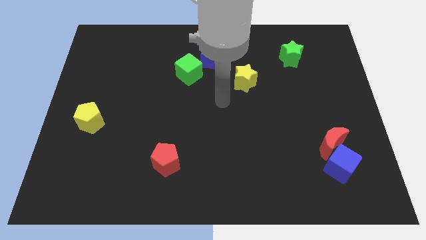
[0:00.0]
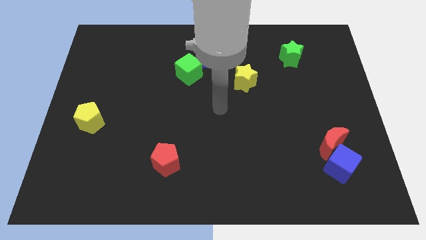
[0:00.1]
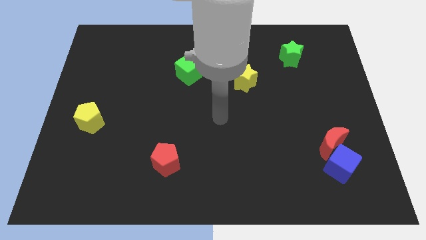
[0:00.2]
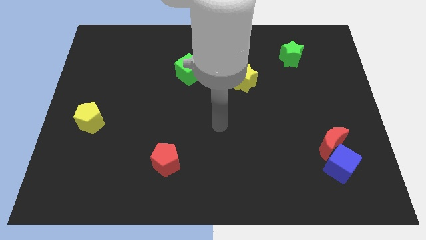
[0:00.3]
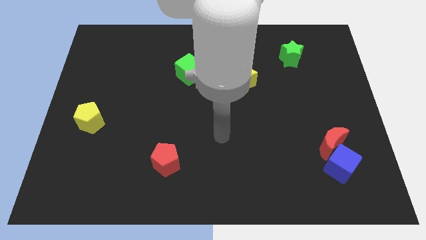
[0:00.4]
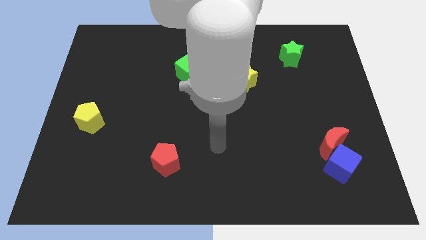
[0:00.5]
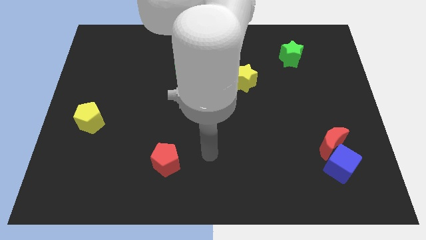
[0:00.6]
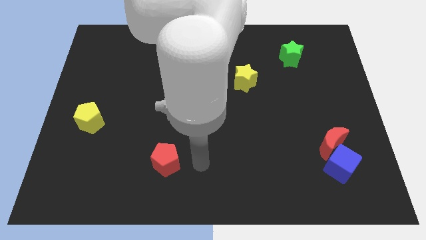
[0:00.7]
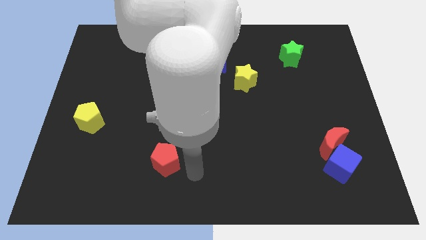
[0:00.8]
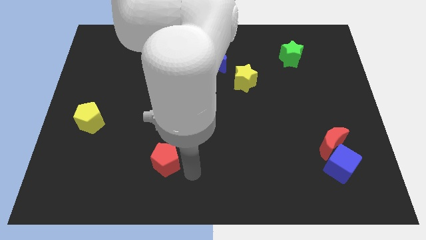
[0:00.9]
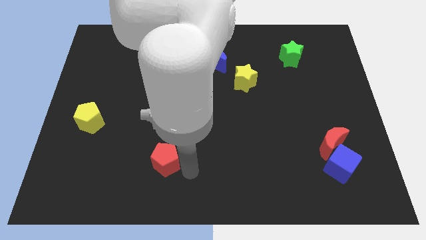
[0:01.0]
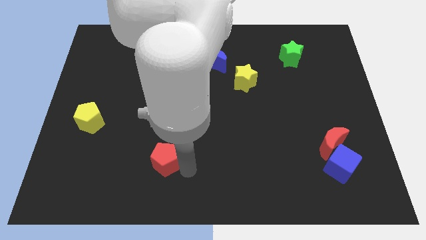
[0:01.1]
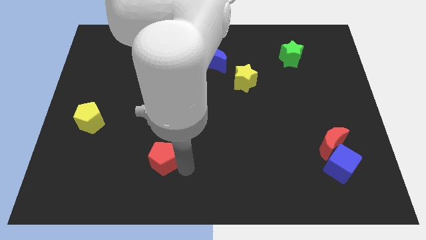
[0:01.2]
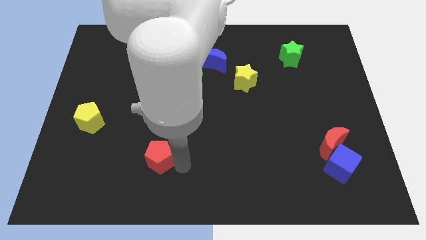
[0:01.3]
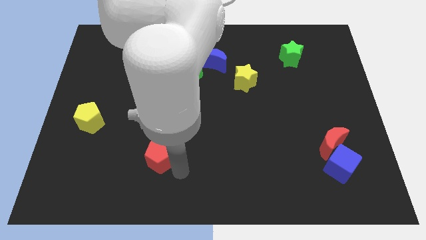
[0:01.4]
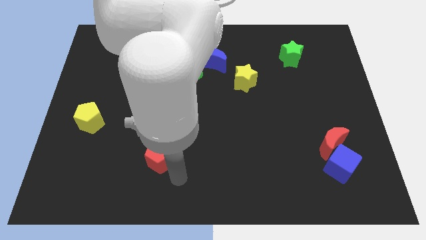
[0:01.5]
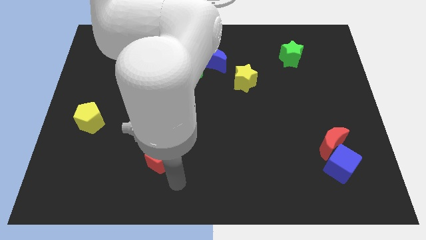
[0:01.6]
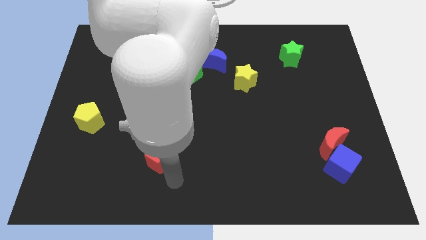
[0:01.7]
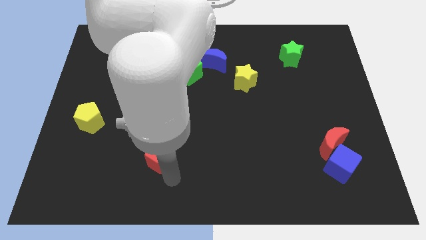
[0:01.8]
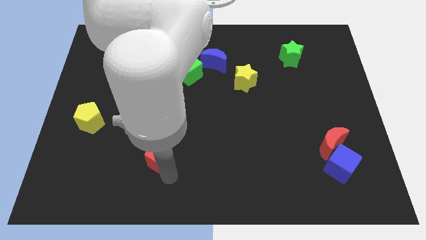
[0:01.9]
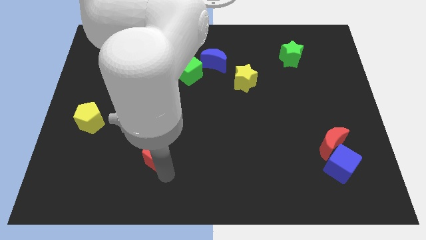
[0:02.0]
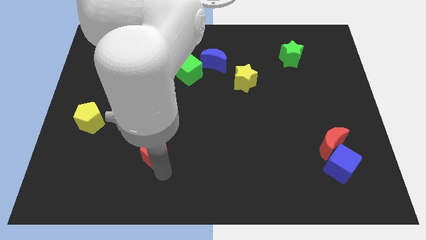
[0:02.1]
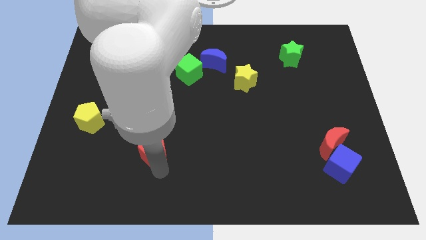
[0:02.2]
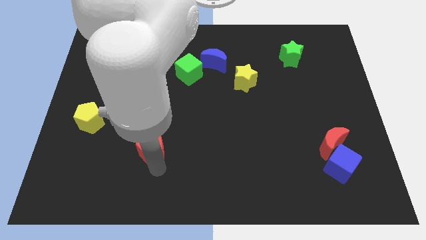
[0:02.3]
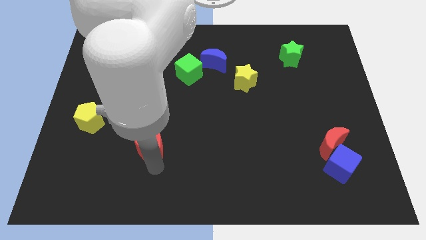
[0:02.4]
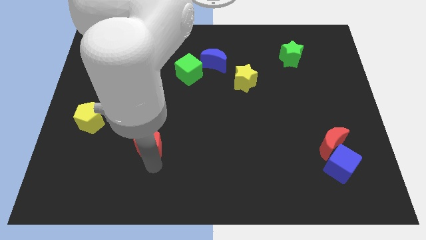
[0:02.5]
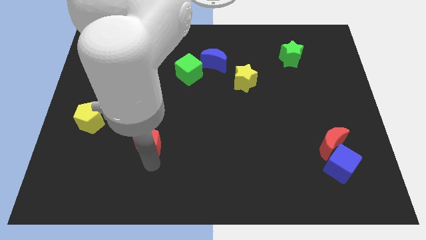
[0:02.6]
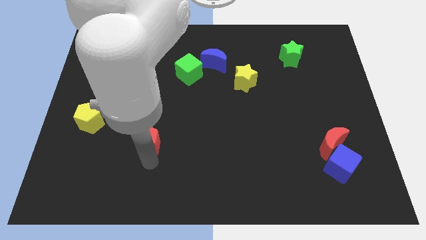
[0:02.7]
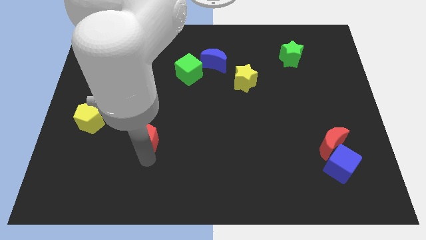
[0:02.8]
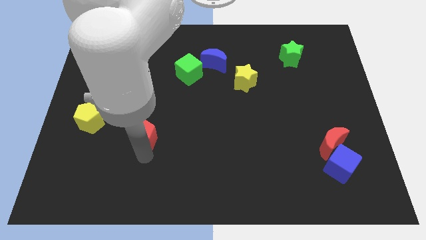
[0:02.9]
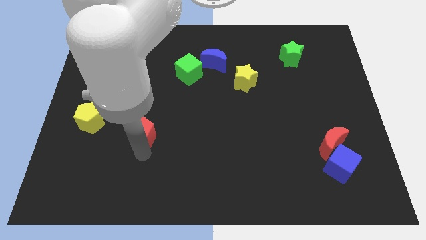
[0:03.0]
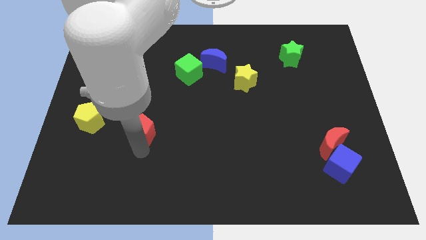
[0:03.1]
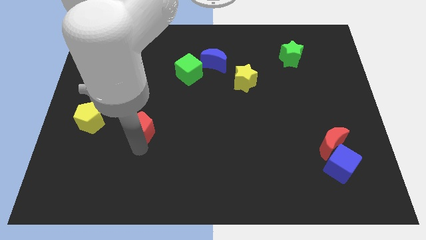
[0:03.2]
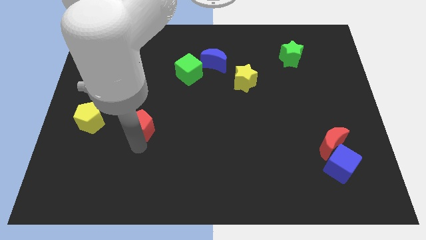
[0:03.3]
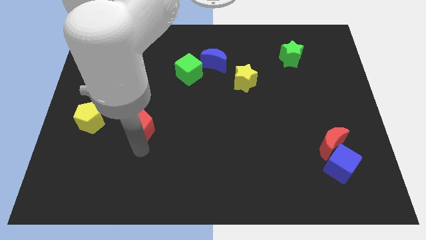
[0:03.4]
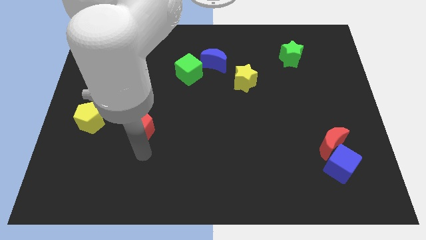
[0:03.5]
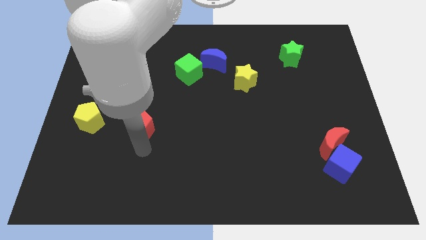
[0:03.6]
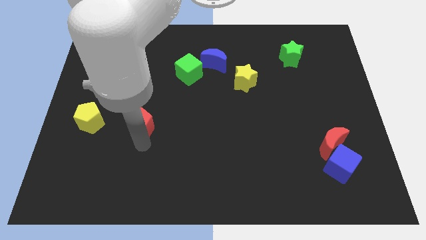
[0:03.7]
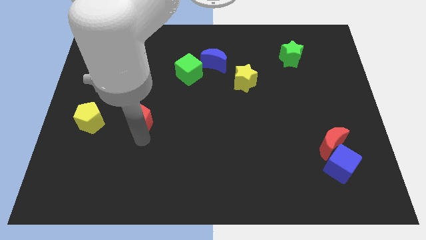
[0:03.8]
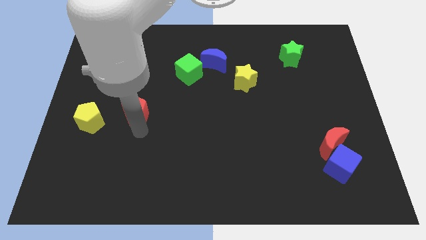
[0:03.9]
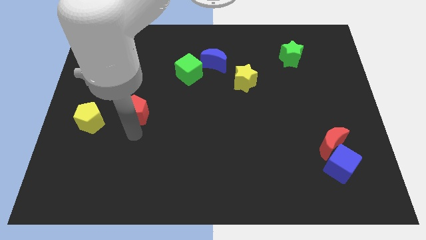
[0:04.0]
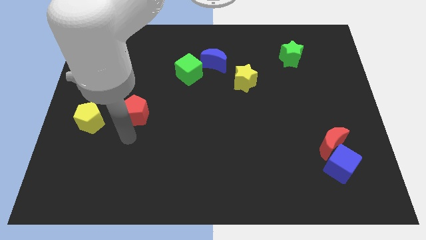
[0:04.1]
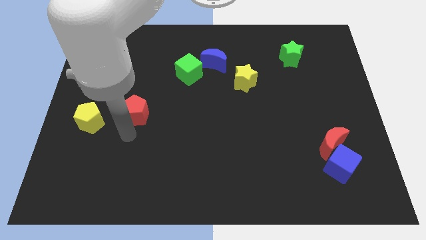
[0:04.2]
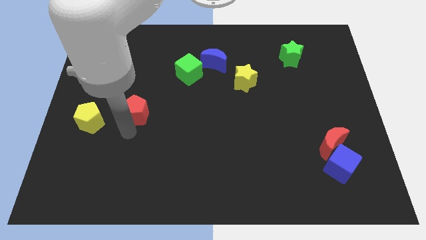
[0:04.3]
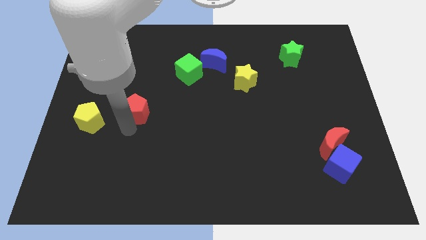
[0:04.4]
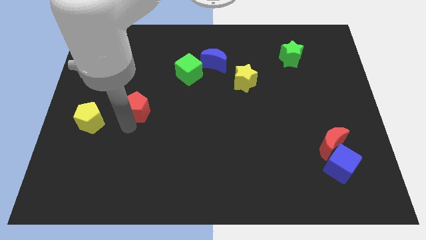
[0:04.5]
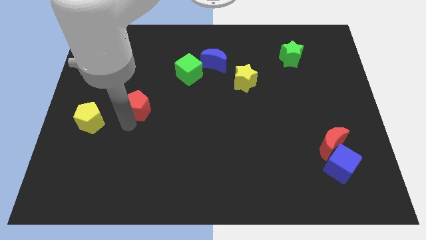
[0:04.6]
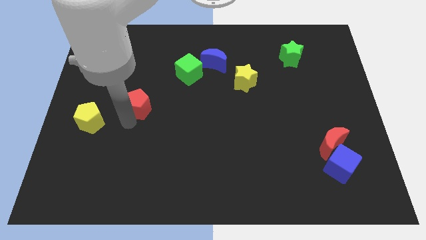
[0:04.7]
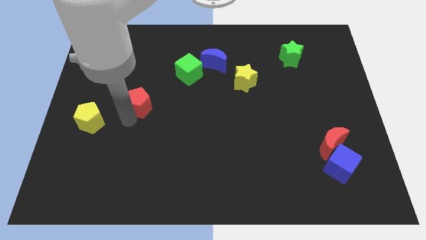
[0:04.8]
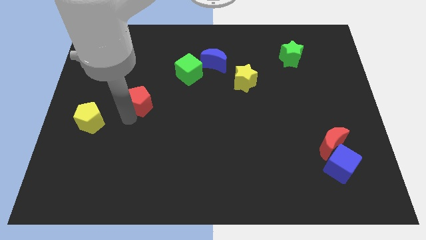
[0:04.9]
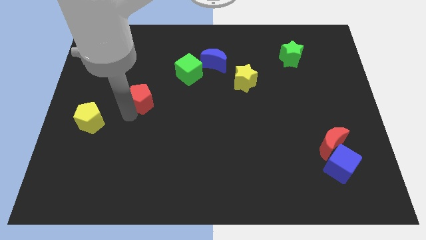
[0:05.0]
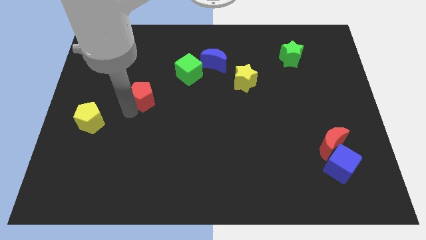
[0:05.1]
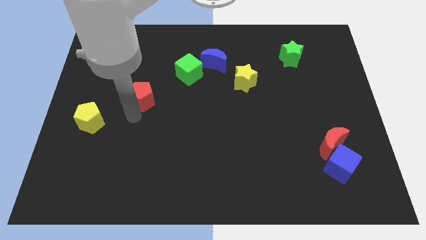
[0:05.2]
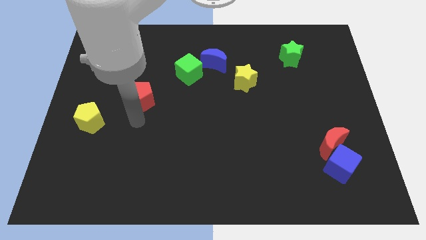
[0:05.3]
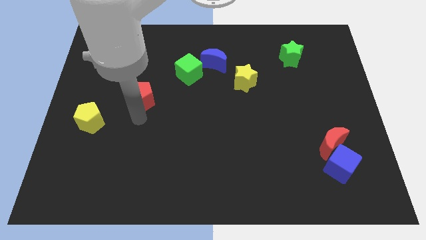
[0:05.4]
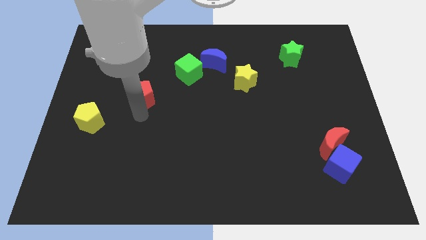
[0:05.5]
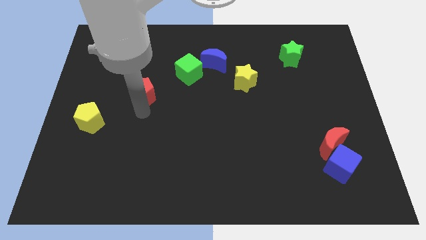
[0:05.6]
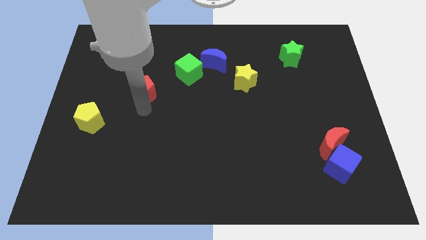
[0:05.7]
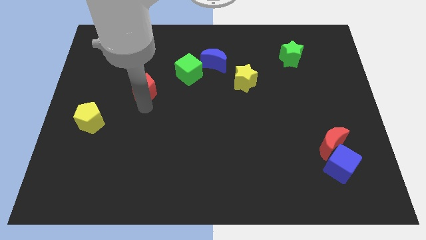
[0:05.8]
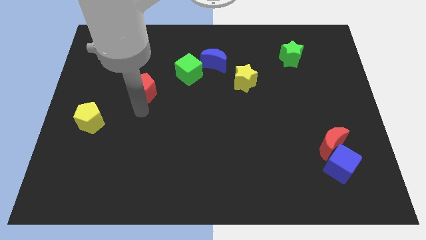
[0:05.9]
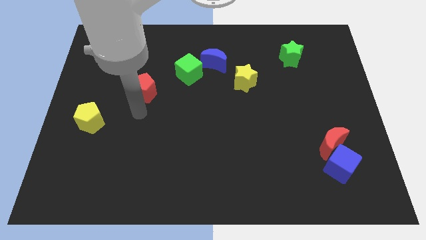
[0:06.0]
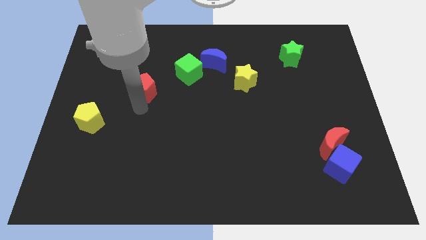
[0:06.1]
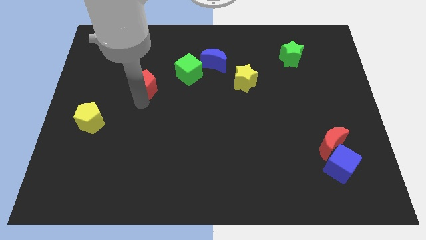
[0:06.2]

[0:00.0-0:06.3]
push the red pentagon just left of the green cube

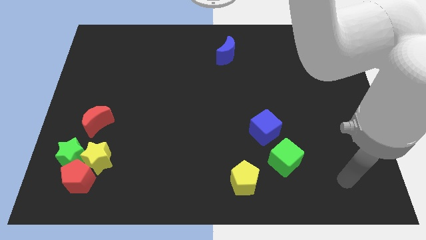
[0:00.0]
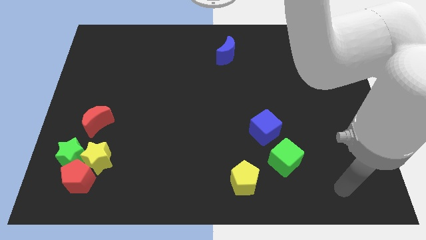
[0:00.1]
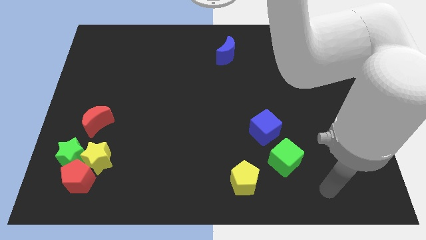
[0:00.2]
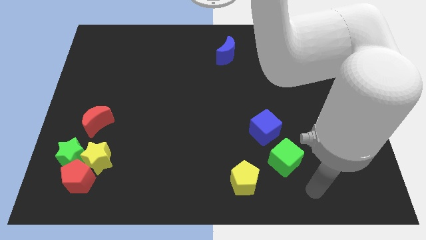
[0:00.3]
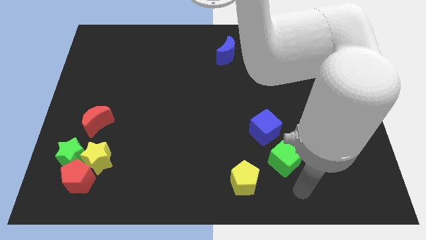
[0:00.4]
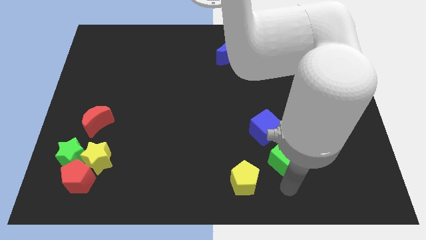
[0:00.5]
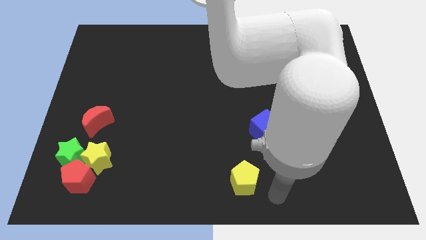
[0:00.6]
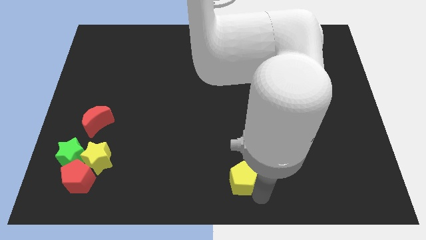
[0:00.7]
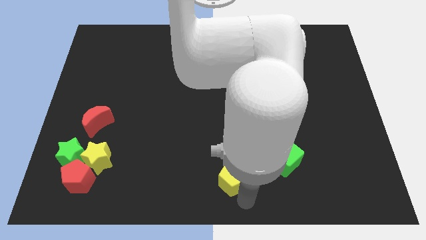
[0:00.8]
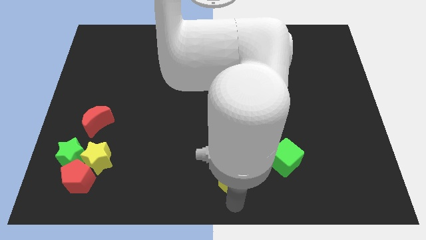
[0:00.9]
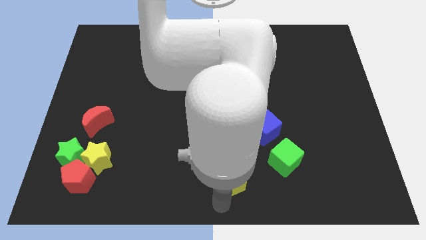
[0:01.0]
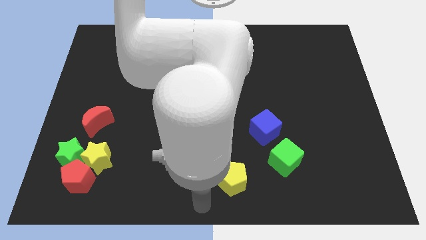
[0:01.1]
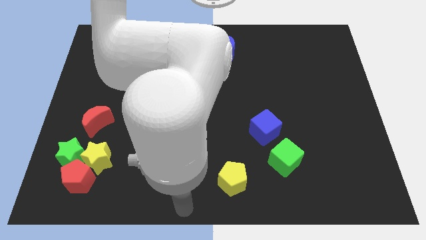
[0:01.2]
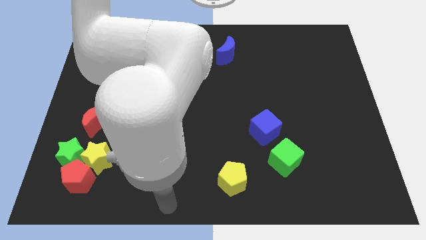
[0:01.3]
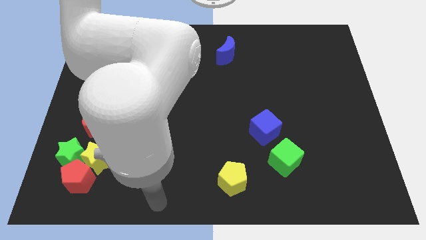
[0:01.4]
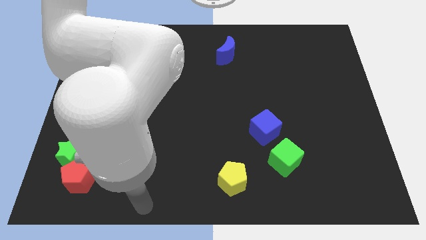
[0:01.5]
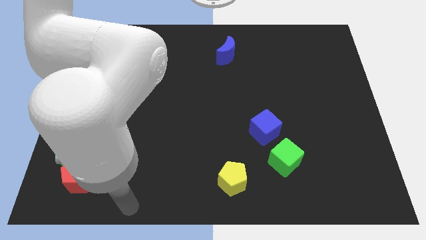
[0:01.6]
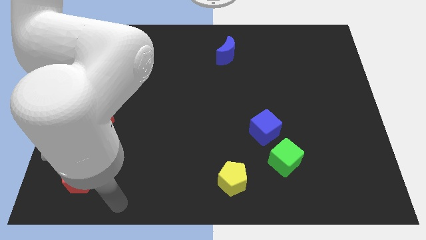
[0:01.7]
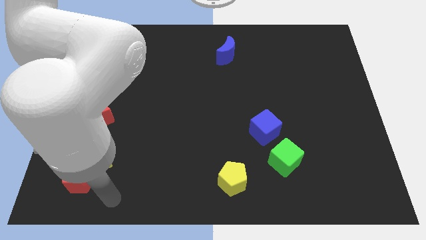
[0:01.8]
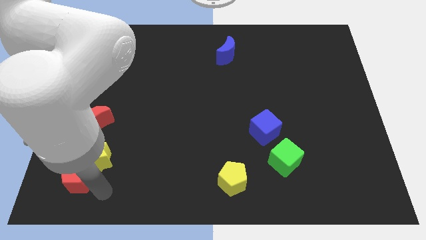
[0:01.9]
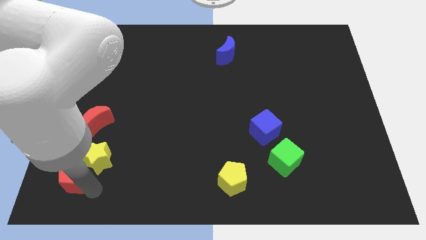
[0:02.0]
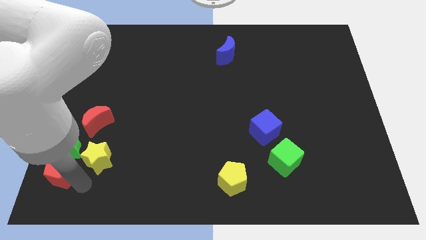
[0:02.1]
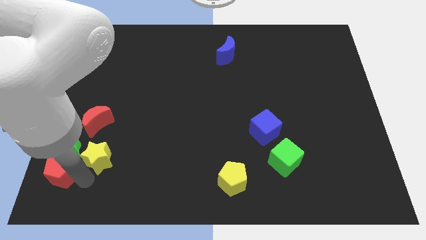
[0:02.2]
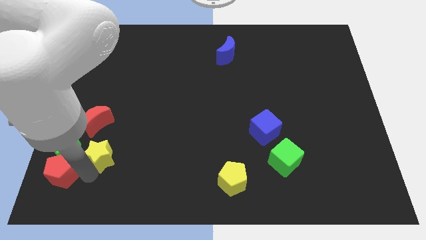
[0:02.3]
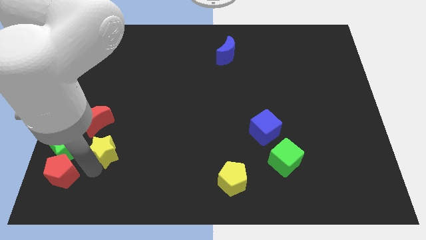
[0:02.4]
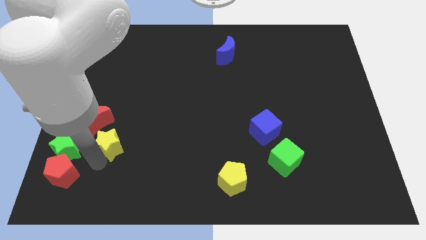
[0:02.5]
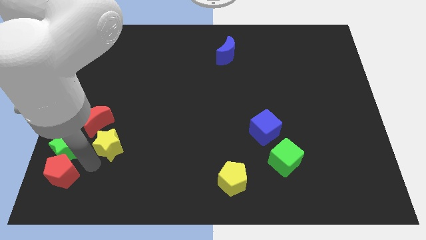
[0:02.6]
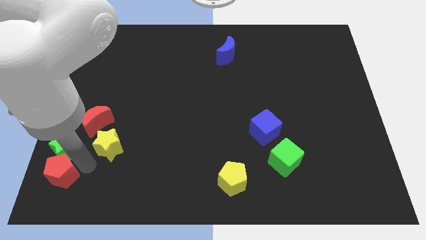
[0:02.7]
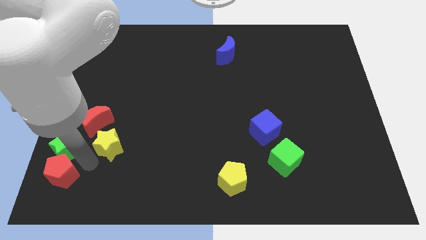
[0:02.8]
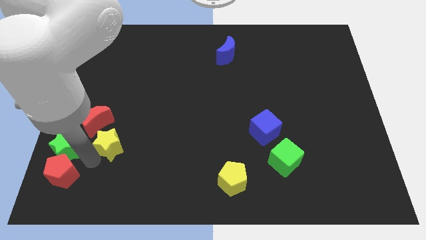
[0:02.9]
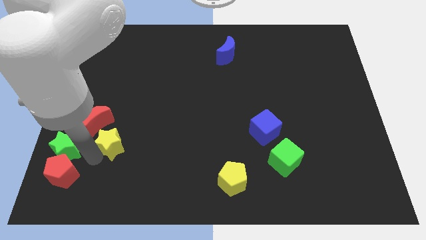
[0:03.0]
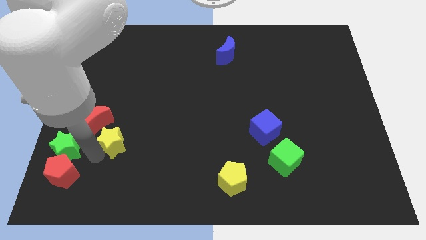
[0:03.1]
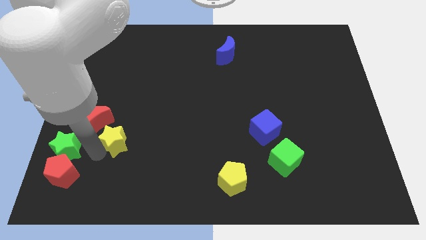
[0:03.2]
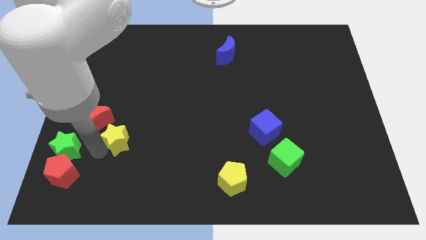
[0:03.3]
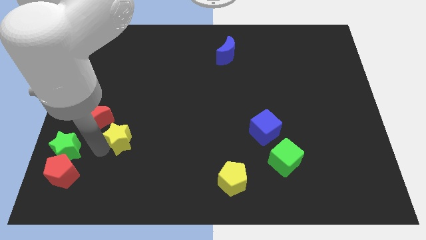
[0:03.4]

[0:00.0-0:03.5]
put the yellow star just right of the red moon
